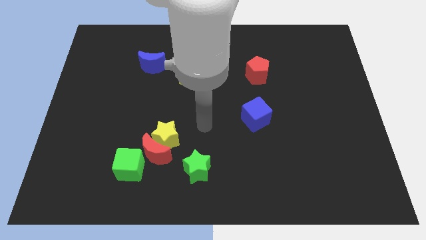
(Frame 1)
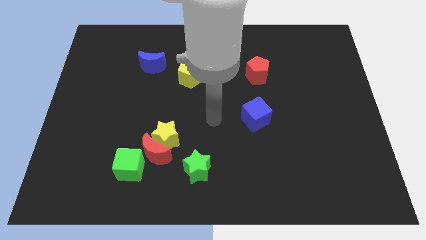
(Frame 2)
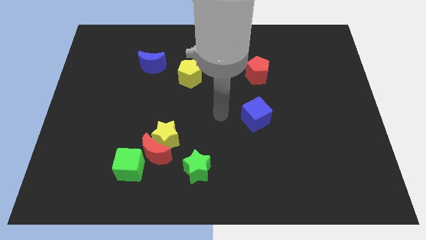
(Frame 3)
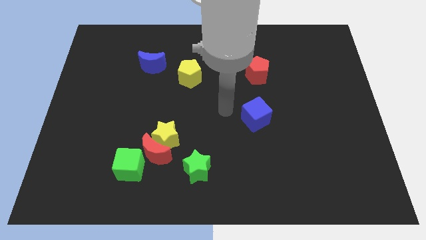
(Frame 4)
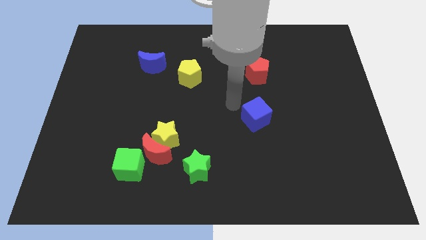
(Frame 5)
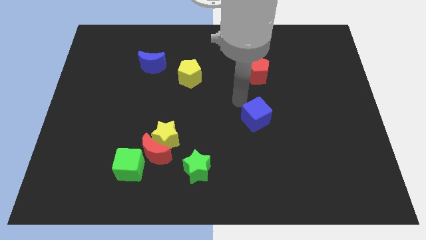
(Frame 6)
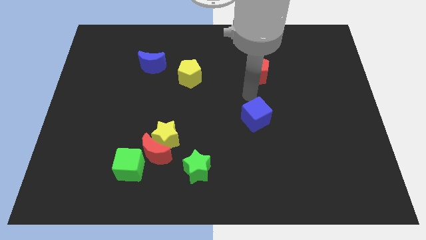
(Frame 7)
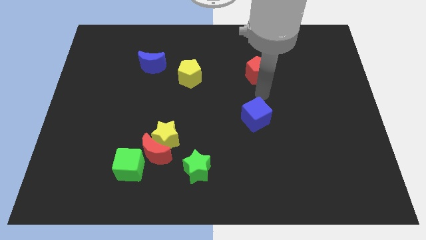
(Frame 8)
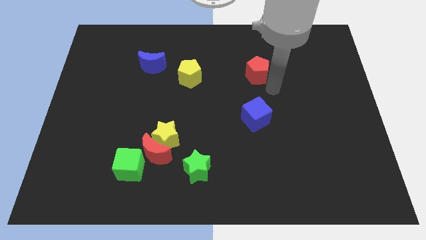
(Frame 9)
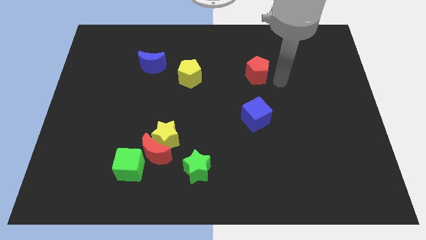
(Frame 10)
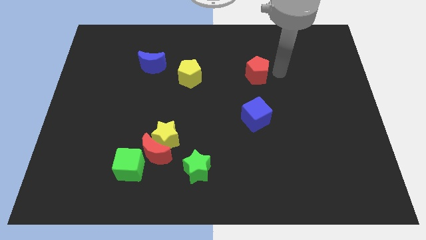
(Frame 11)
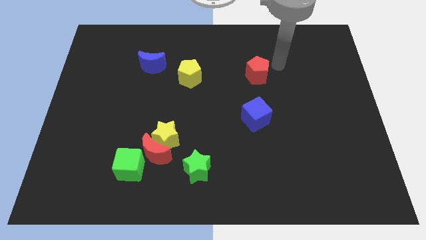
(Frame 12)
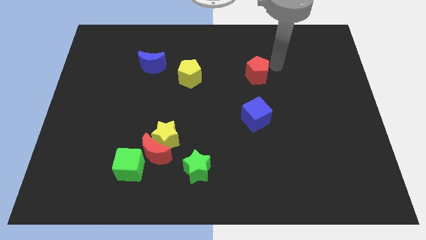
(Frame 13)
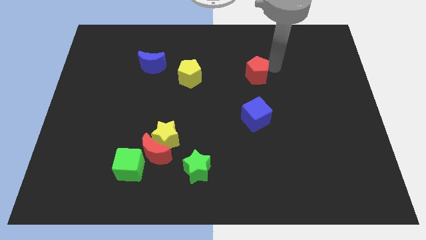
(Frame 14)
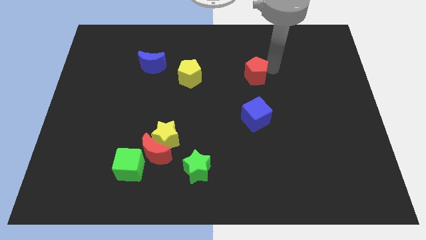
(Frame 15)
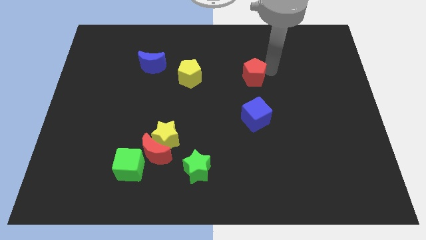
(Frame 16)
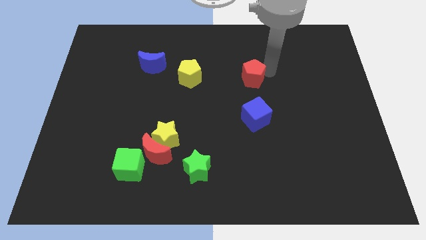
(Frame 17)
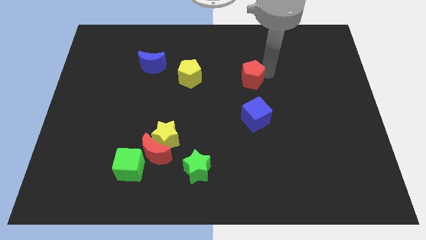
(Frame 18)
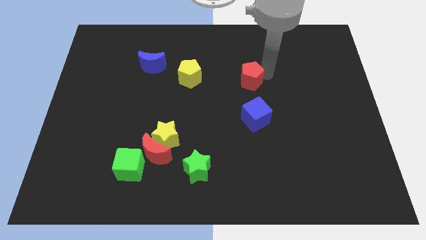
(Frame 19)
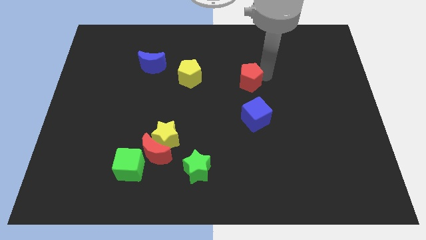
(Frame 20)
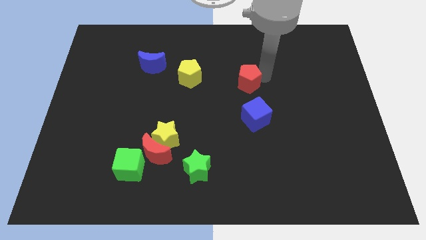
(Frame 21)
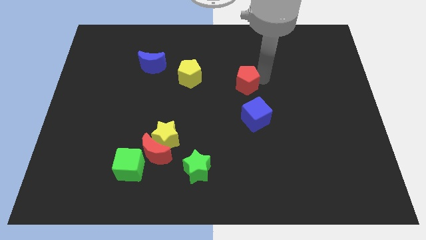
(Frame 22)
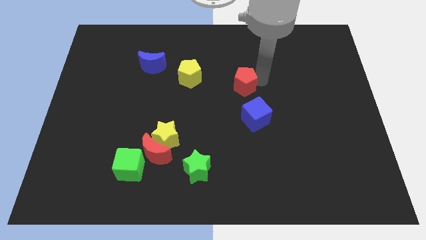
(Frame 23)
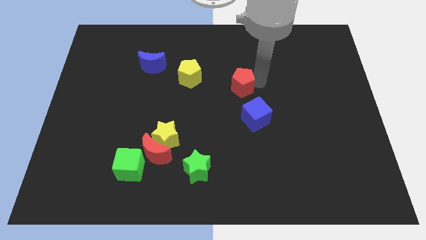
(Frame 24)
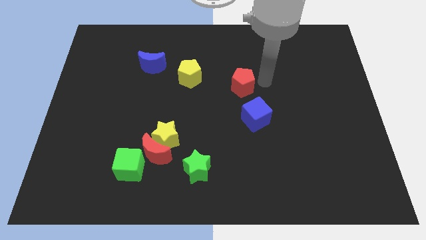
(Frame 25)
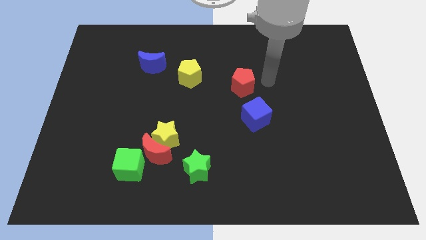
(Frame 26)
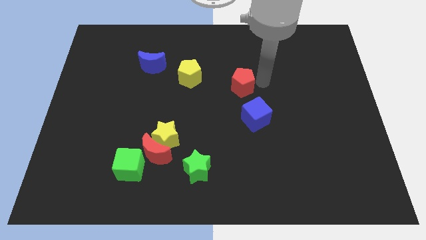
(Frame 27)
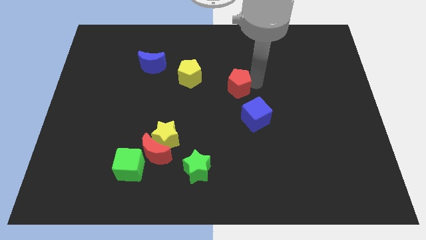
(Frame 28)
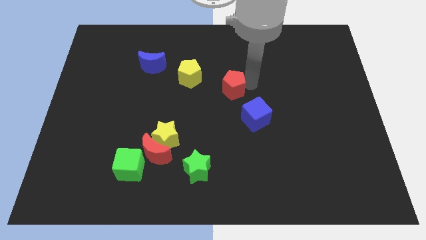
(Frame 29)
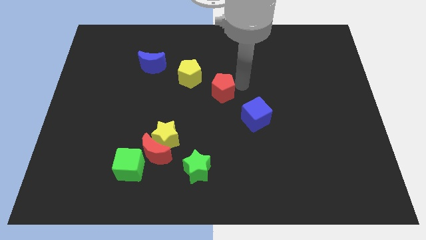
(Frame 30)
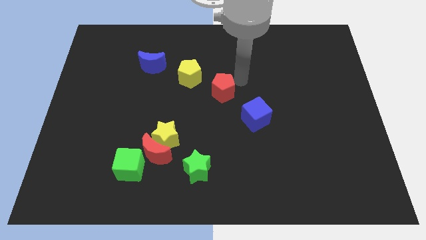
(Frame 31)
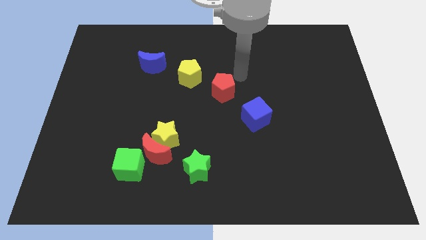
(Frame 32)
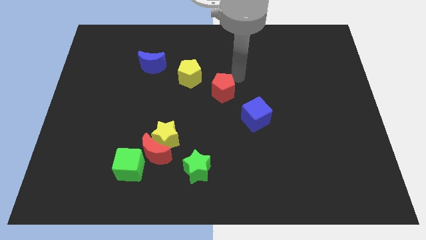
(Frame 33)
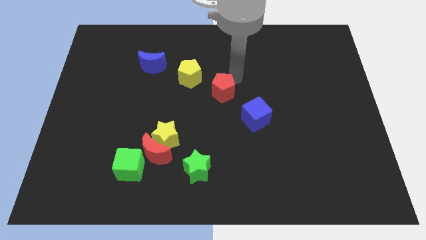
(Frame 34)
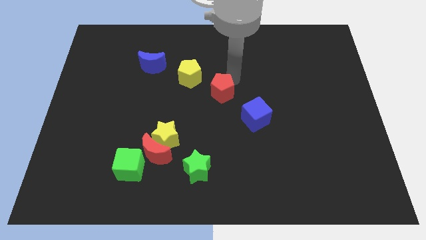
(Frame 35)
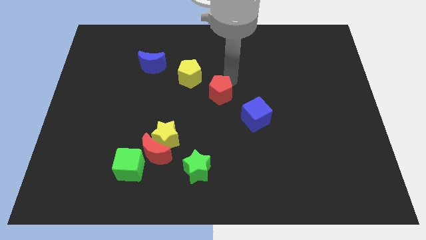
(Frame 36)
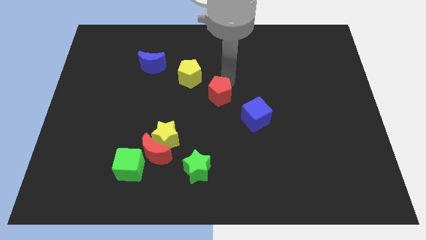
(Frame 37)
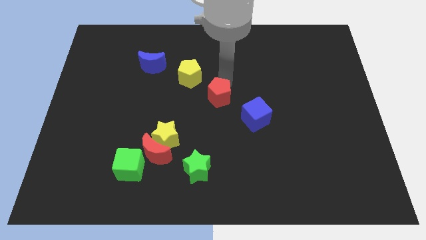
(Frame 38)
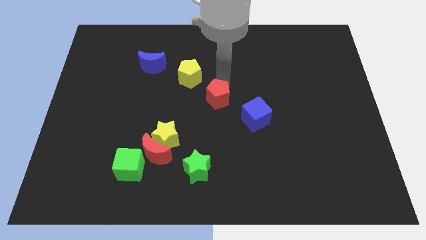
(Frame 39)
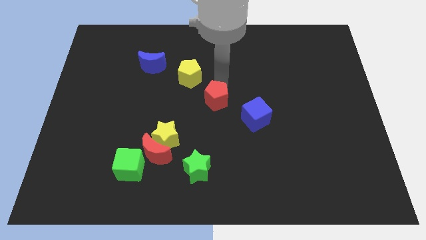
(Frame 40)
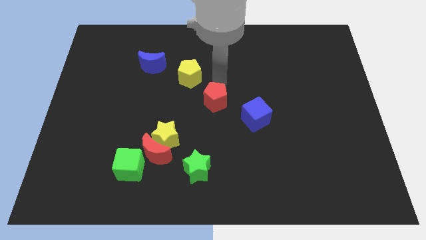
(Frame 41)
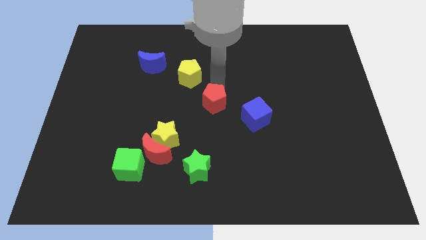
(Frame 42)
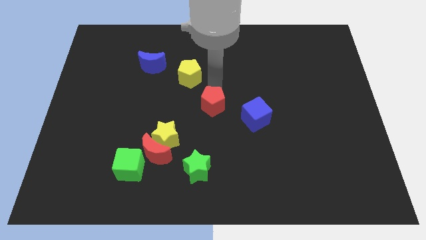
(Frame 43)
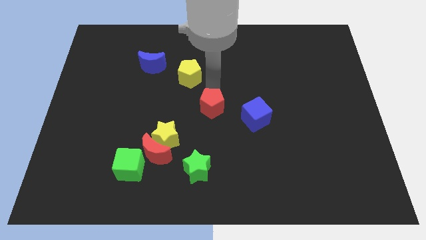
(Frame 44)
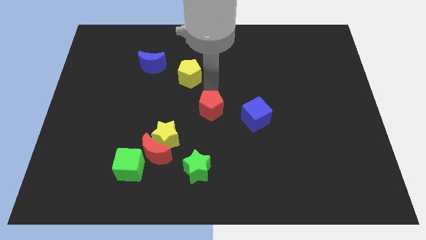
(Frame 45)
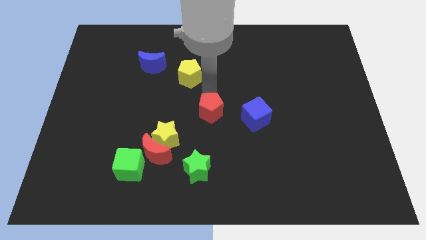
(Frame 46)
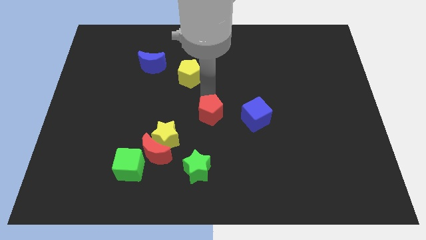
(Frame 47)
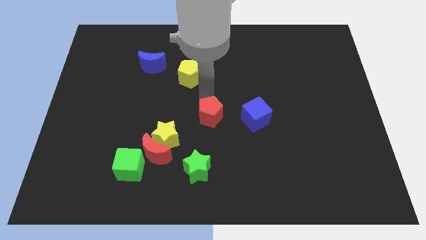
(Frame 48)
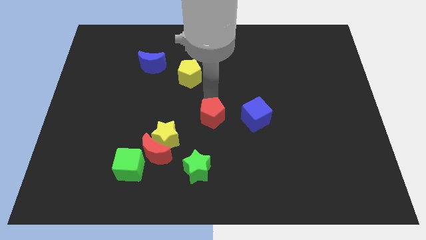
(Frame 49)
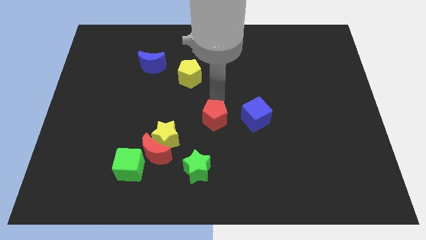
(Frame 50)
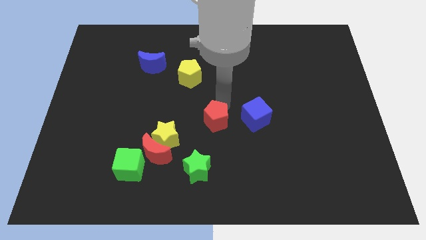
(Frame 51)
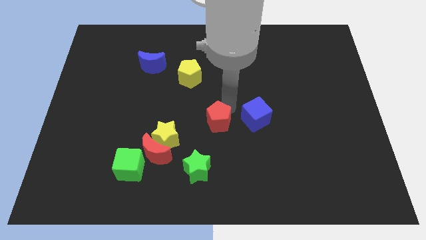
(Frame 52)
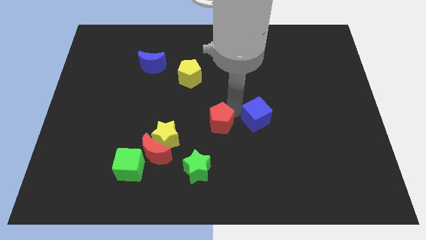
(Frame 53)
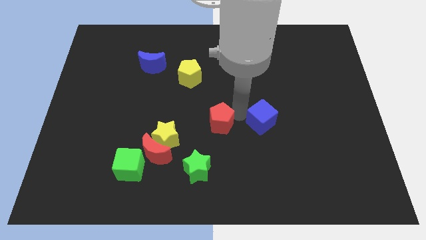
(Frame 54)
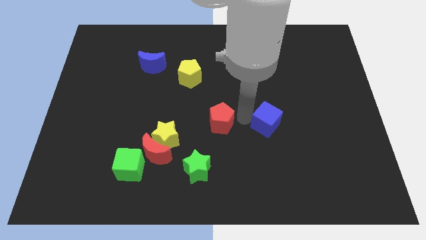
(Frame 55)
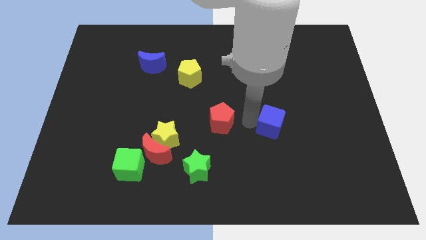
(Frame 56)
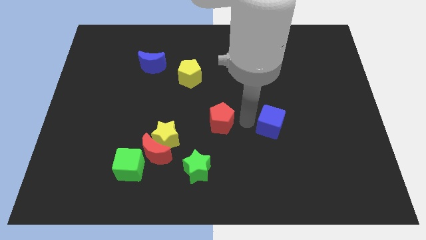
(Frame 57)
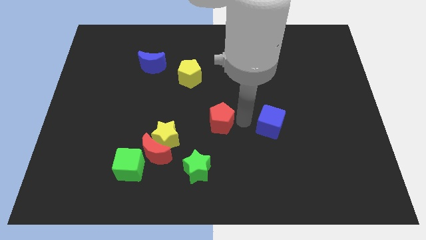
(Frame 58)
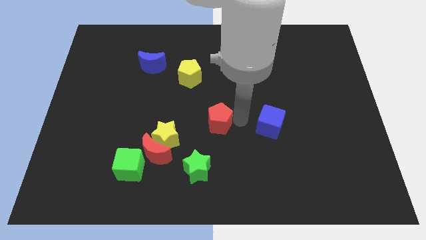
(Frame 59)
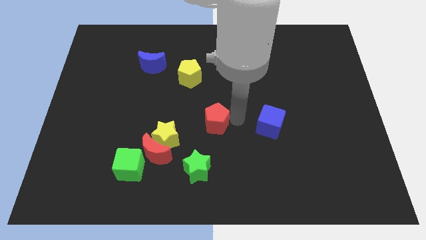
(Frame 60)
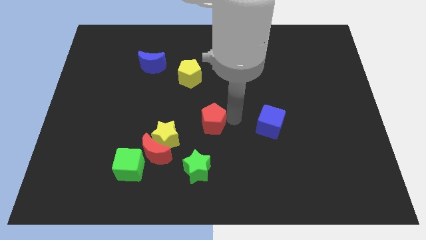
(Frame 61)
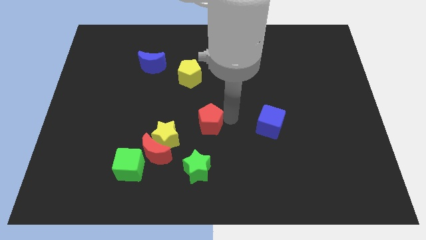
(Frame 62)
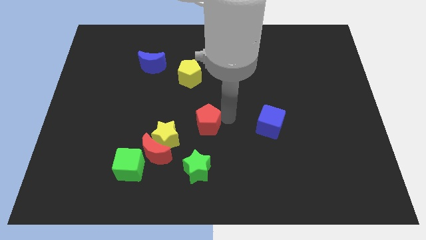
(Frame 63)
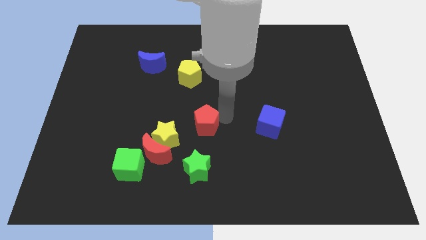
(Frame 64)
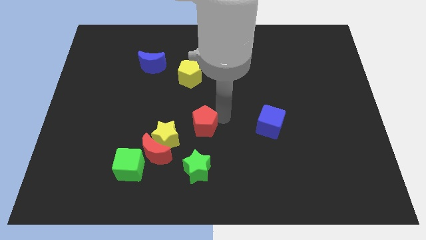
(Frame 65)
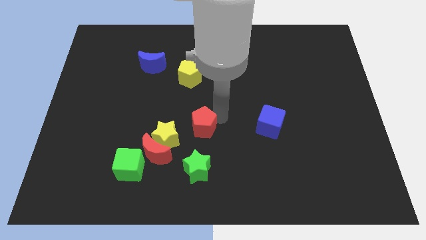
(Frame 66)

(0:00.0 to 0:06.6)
put the red pentagon to the top right of the red moon

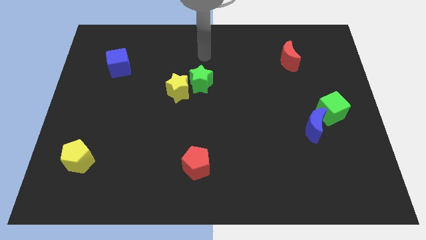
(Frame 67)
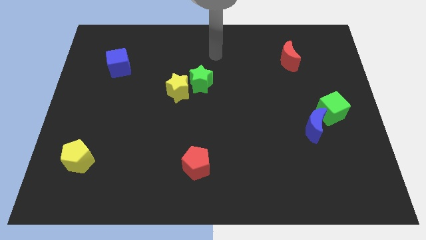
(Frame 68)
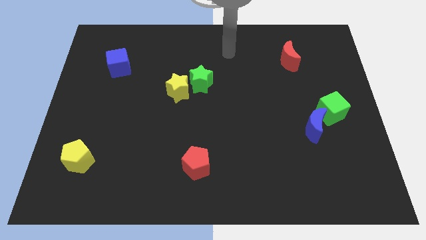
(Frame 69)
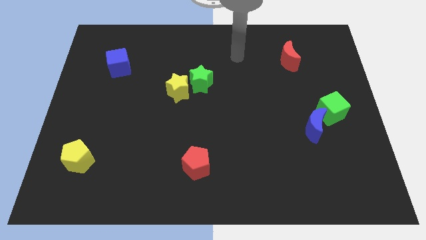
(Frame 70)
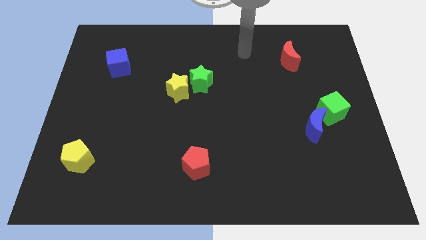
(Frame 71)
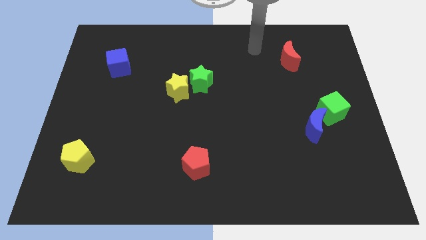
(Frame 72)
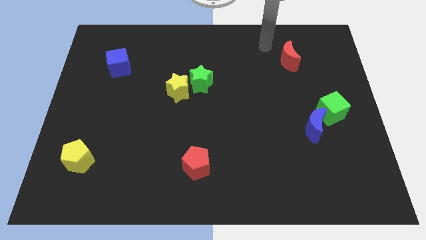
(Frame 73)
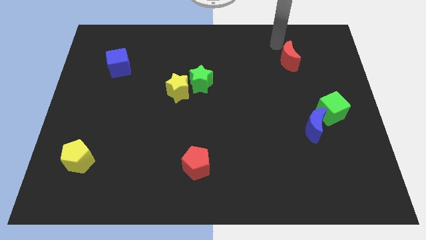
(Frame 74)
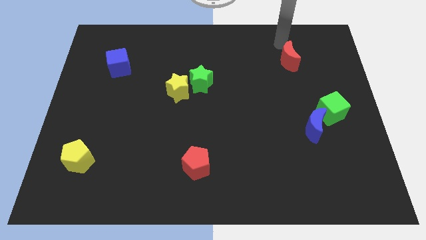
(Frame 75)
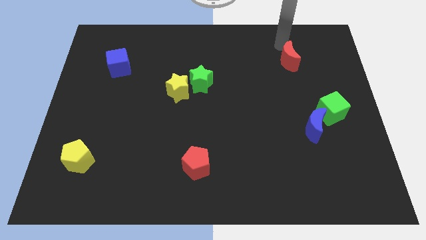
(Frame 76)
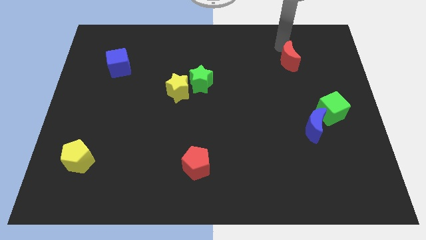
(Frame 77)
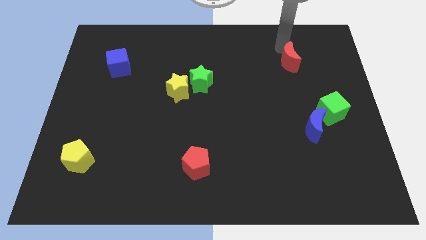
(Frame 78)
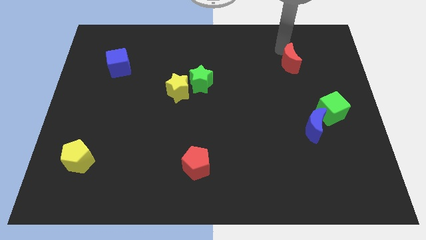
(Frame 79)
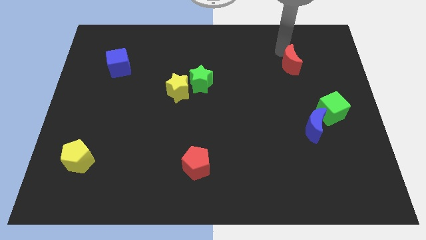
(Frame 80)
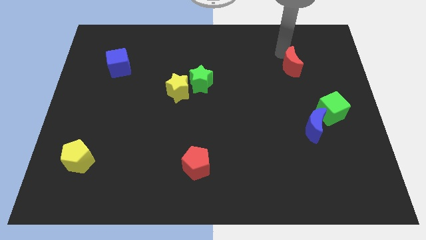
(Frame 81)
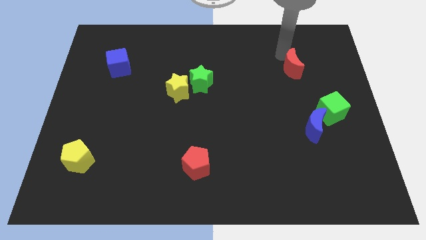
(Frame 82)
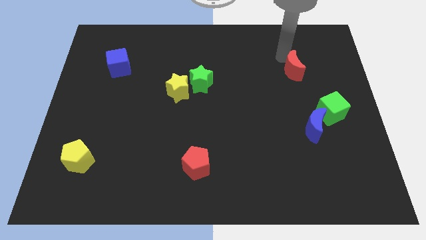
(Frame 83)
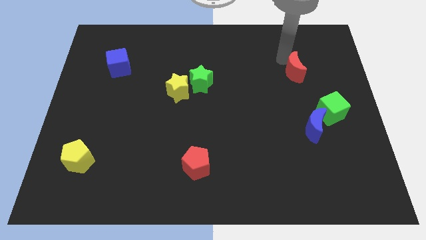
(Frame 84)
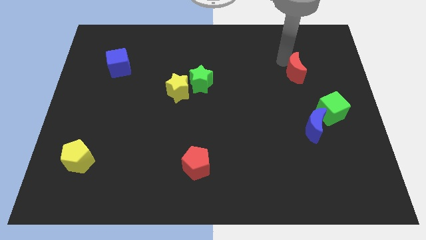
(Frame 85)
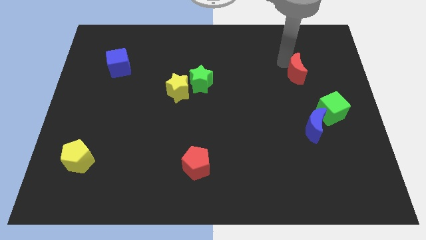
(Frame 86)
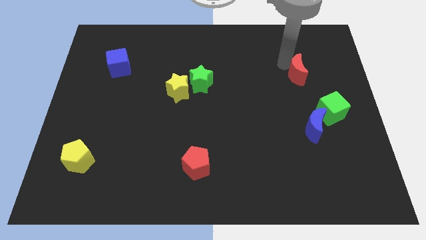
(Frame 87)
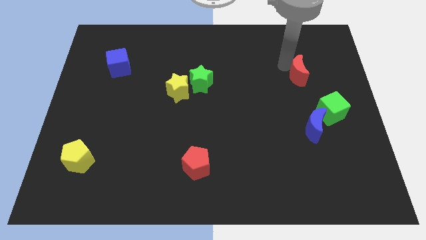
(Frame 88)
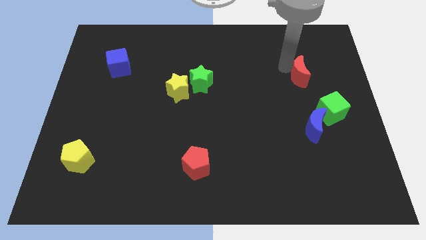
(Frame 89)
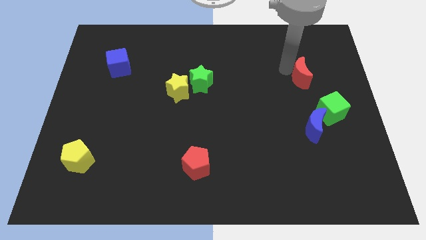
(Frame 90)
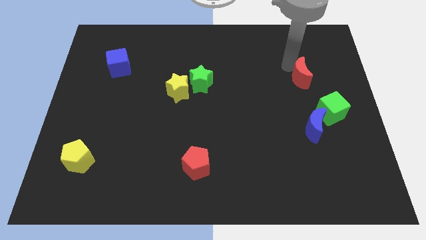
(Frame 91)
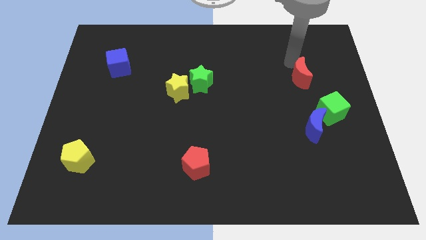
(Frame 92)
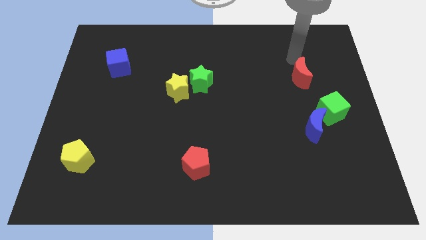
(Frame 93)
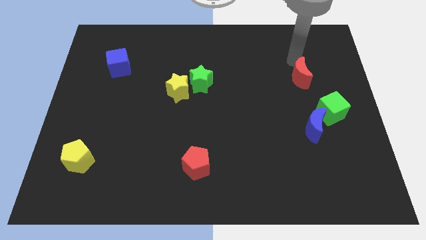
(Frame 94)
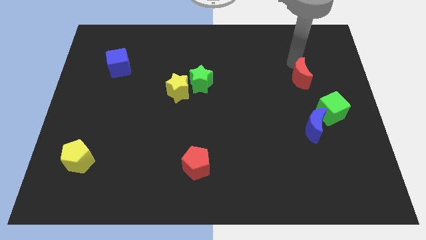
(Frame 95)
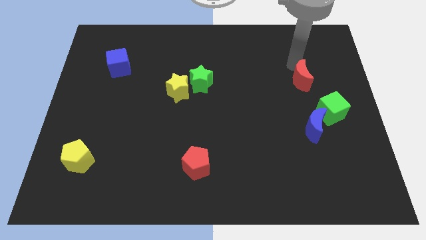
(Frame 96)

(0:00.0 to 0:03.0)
slide the red moon diagonally up and to the left of the green cube
